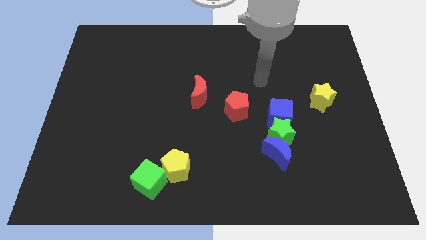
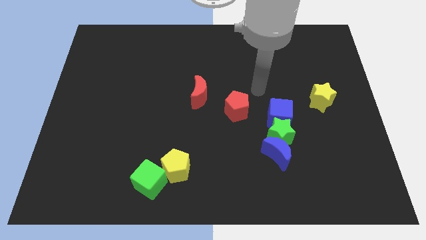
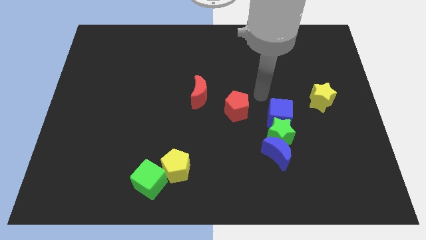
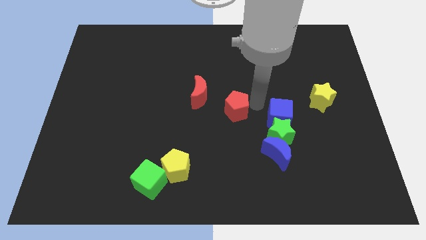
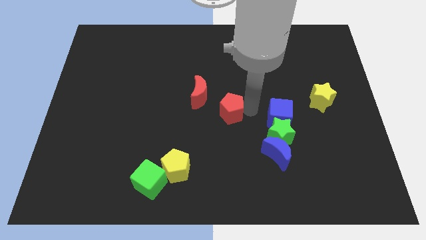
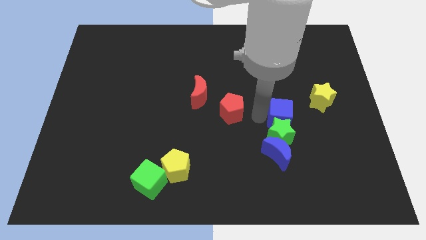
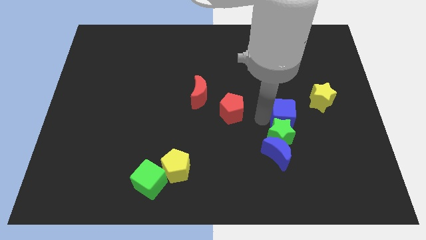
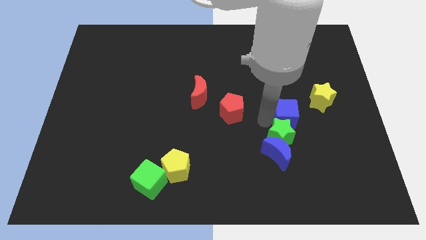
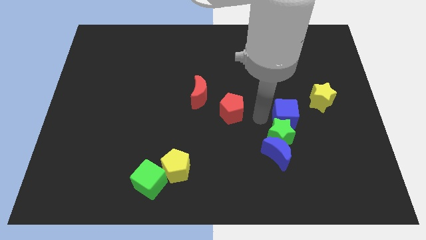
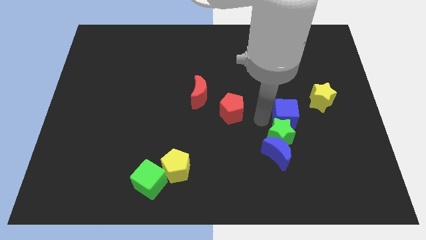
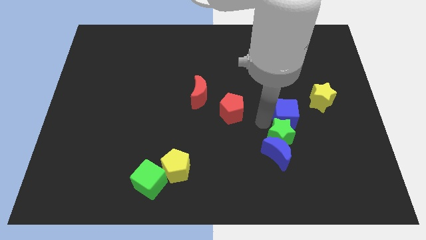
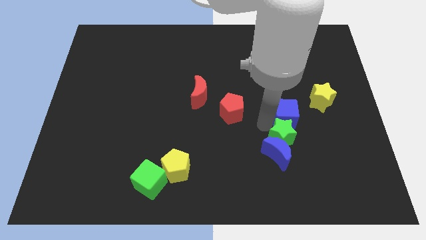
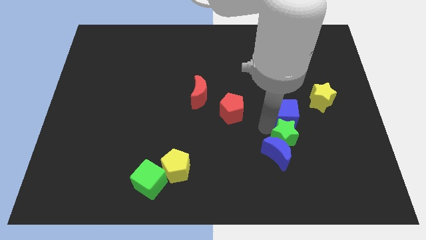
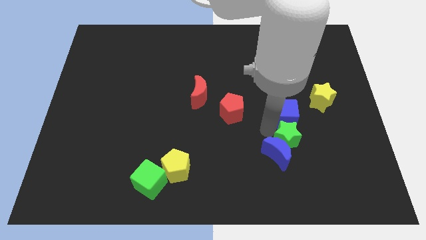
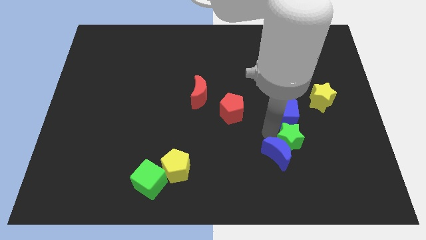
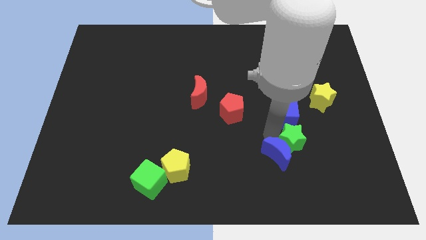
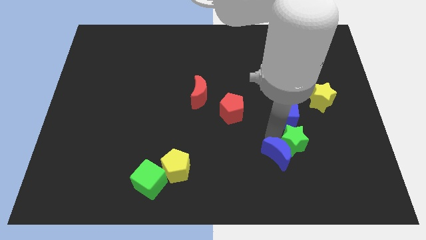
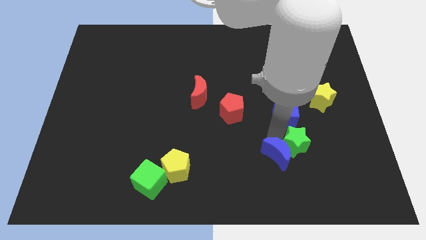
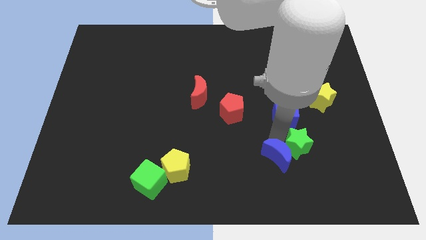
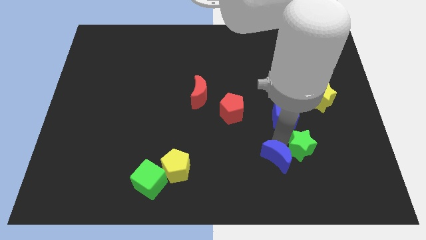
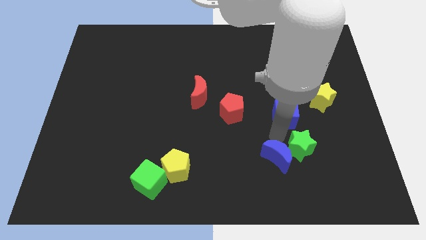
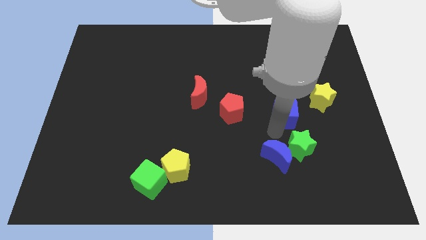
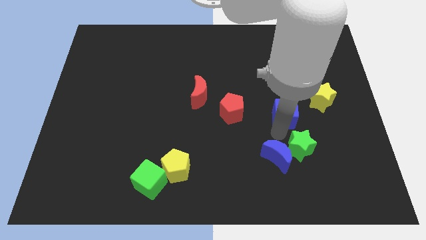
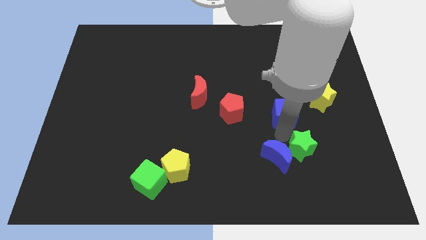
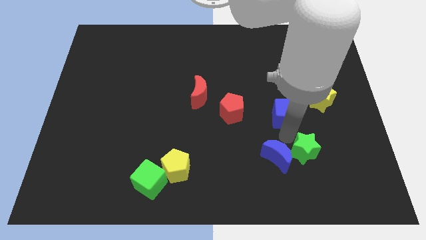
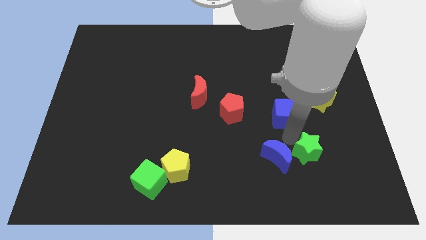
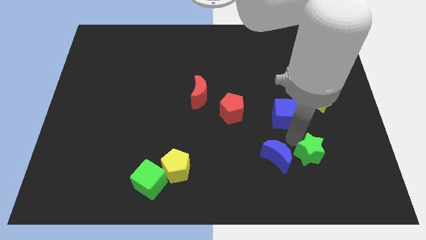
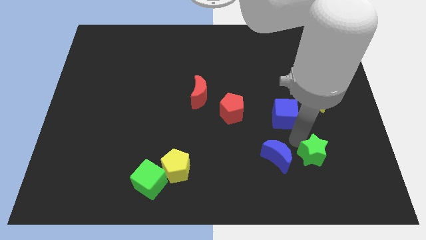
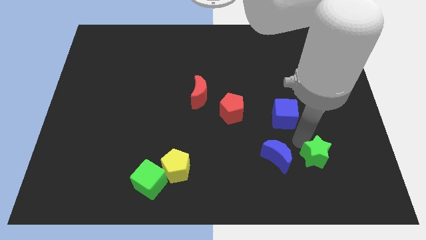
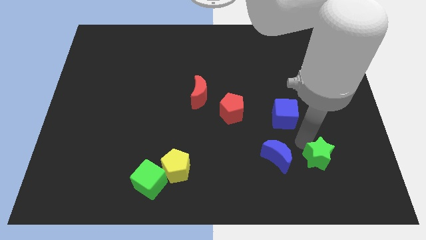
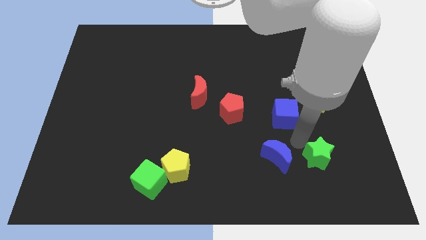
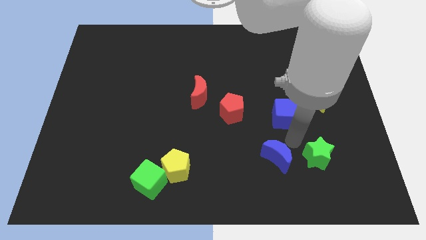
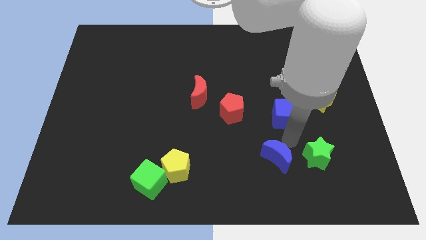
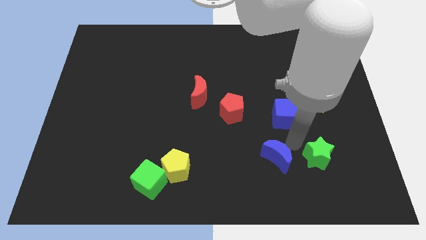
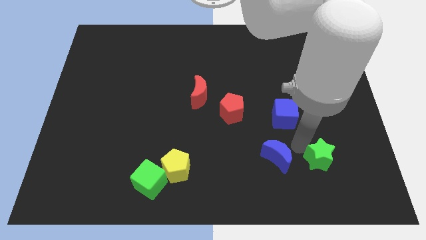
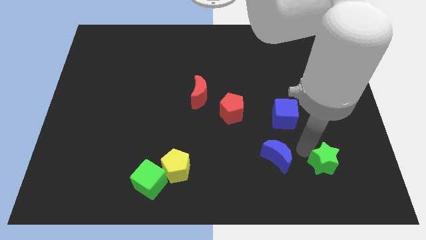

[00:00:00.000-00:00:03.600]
pull the green star apart from the blue moon and blue cube

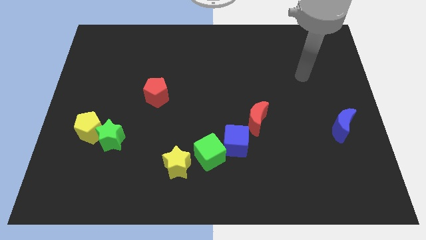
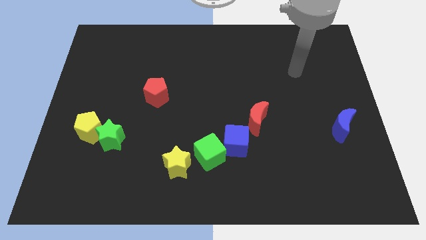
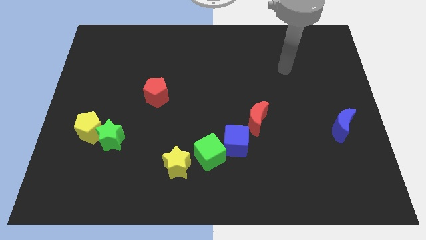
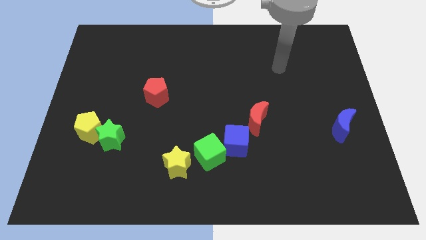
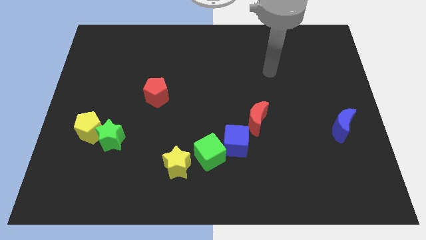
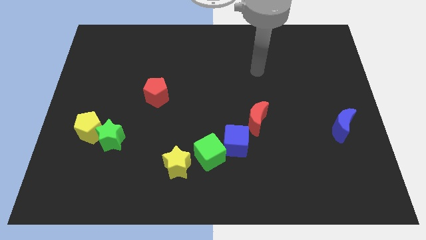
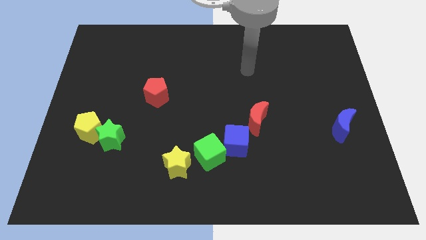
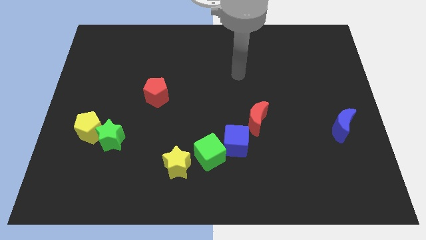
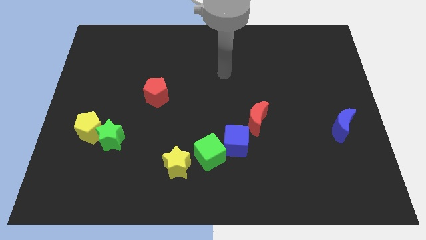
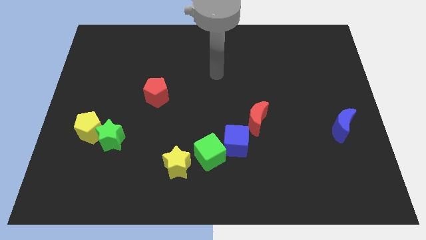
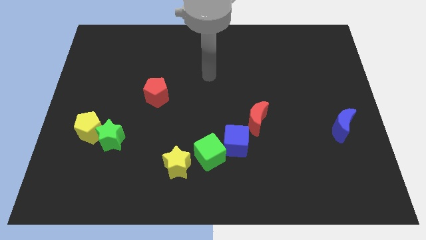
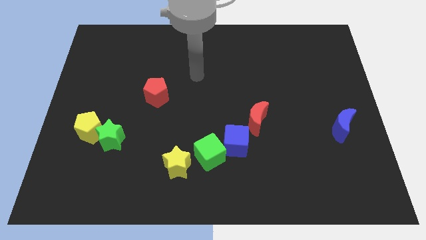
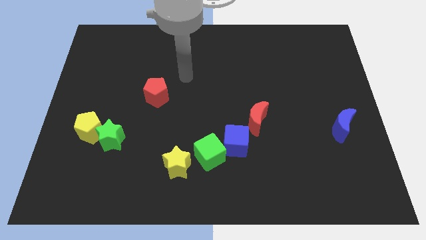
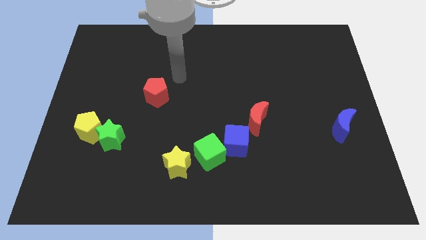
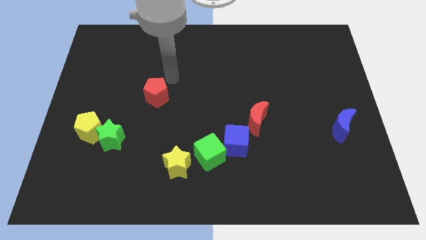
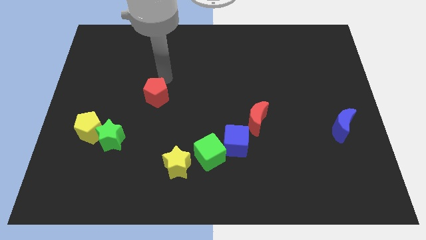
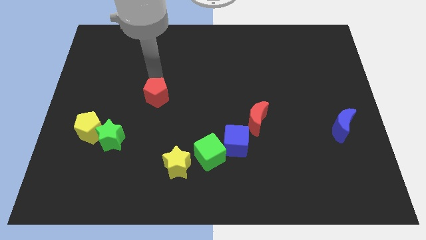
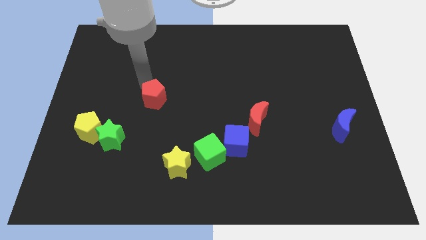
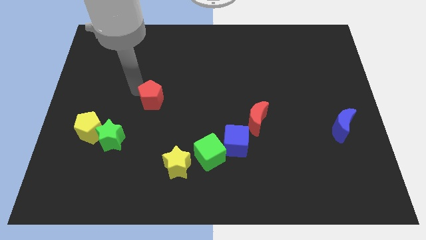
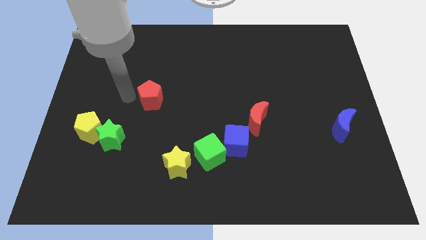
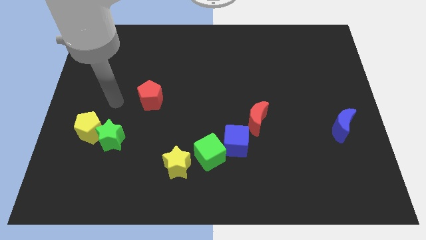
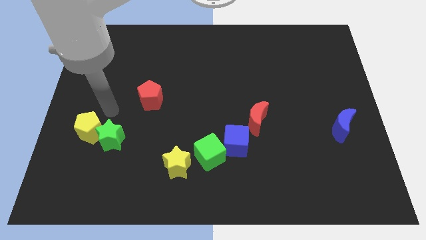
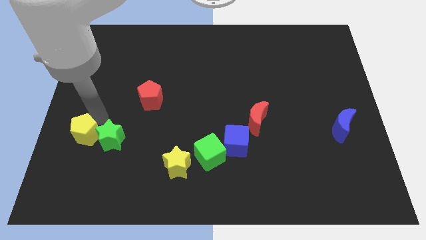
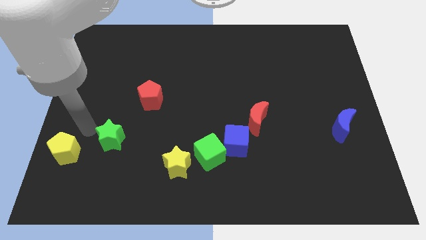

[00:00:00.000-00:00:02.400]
pull the green star apart from the yellow pentagon

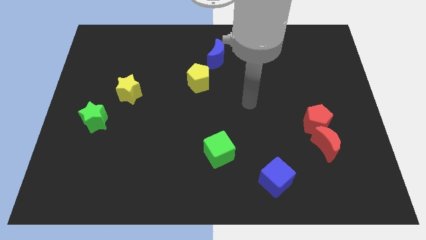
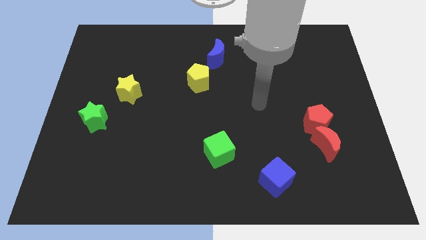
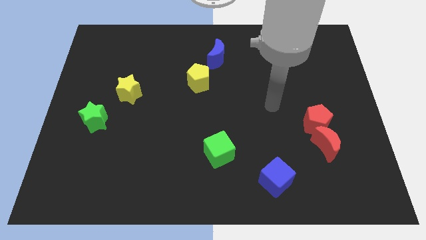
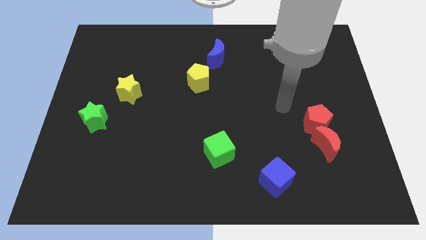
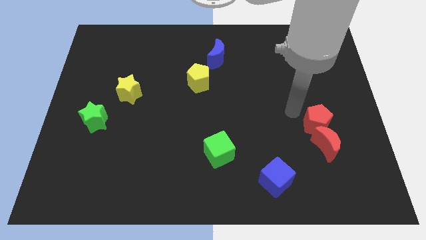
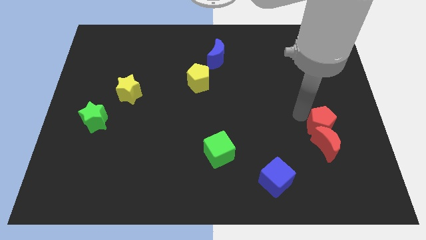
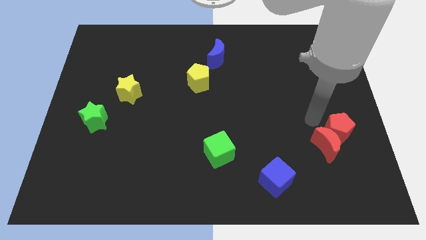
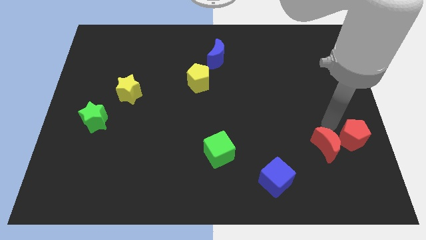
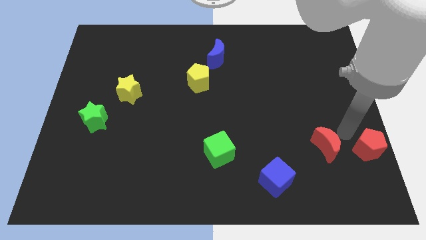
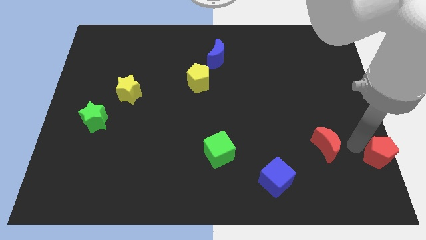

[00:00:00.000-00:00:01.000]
move the red moon away from the red pentagon

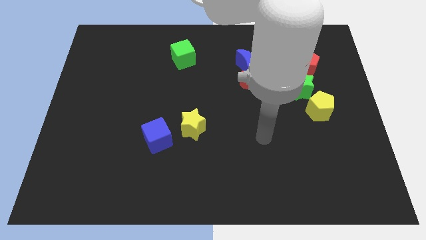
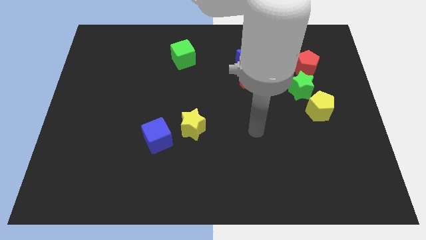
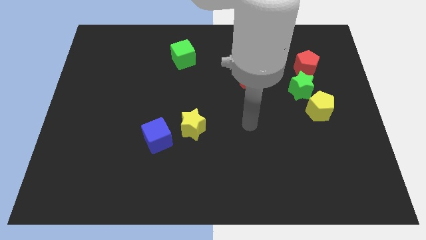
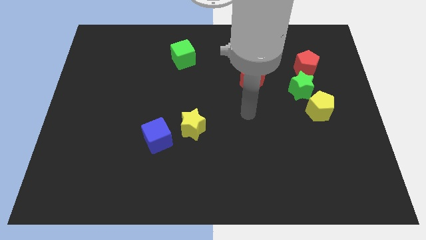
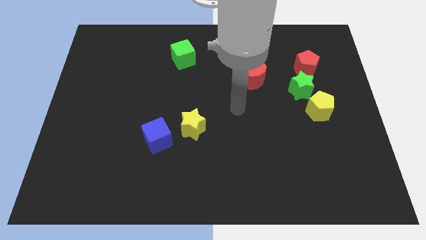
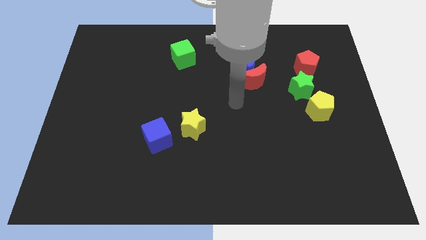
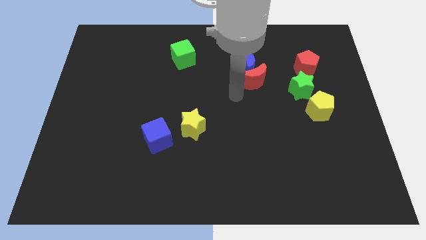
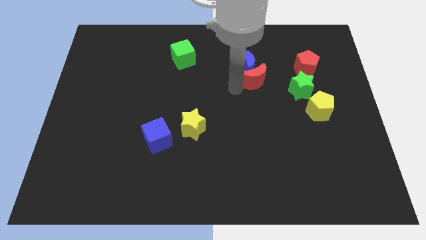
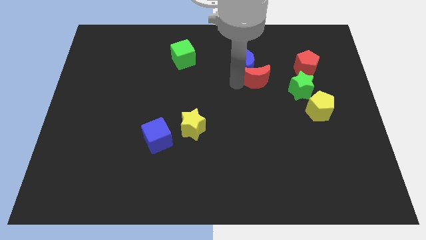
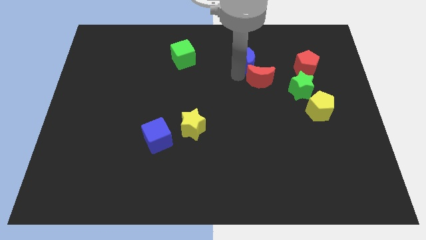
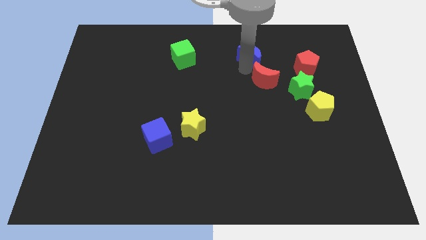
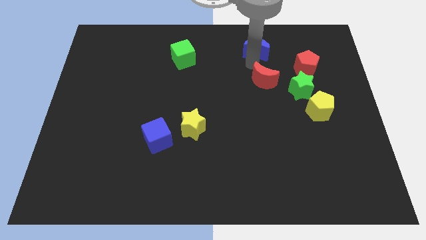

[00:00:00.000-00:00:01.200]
pull the red moon apart from the blue moon

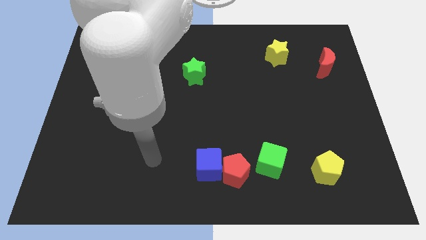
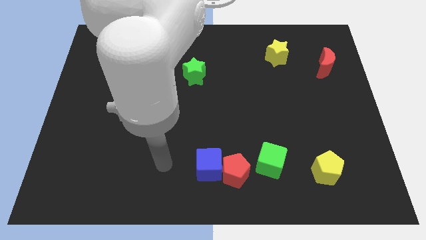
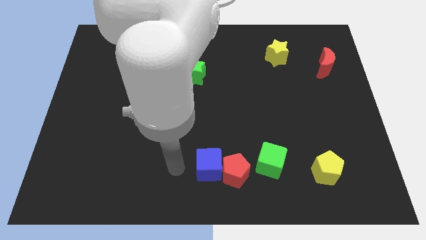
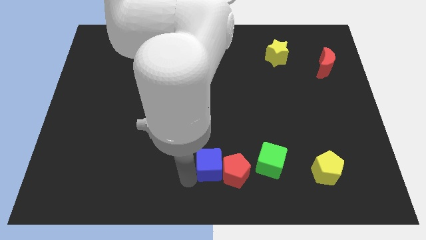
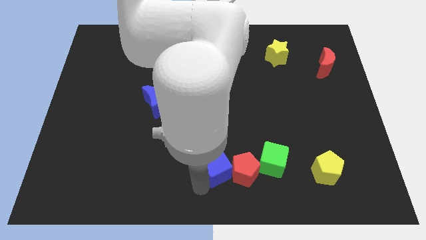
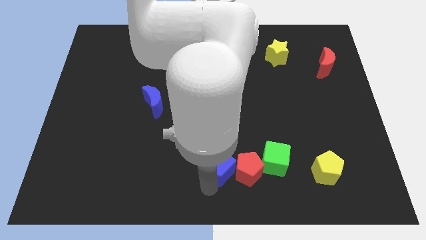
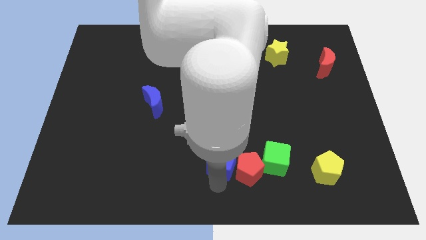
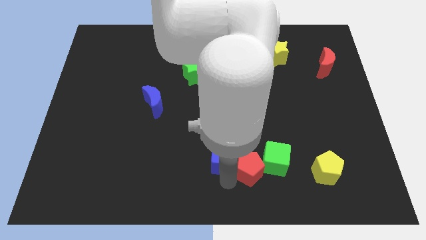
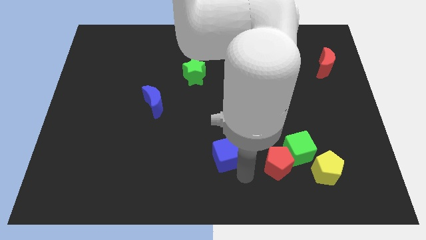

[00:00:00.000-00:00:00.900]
separate the blue cube from the red pentagon

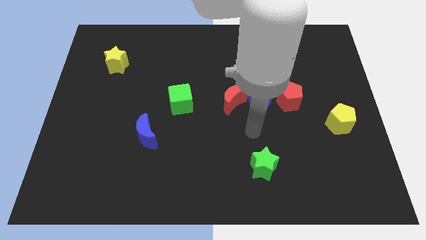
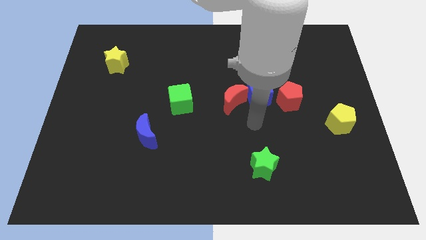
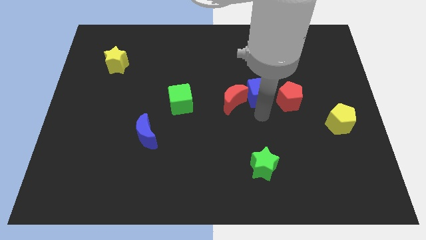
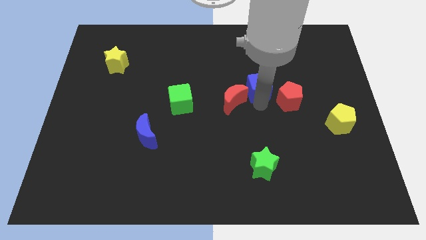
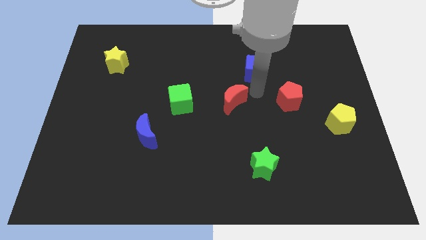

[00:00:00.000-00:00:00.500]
move the red moon away from the blue cube
